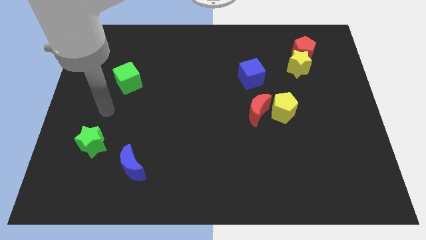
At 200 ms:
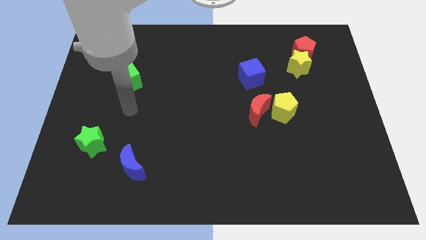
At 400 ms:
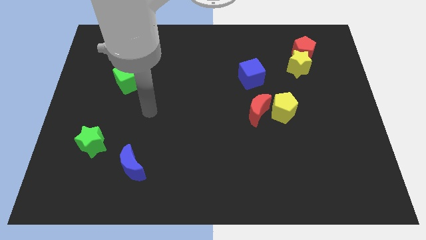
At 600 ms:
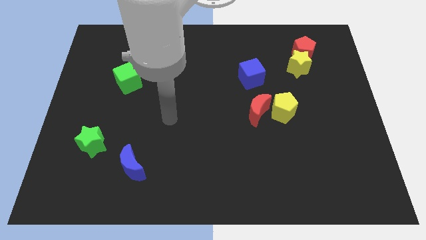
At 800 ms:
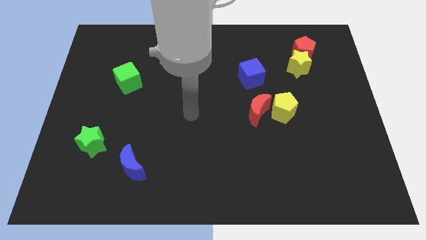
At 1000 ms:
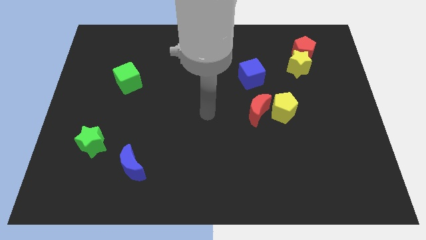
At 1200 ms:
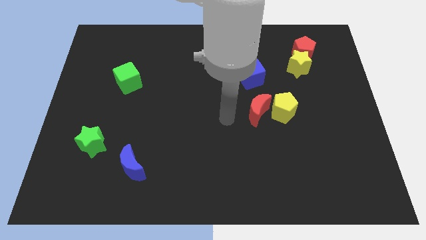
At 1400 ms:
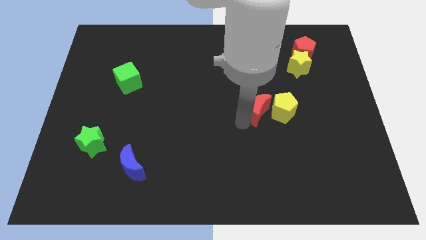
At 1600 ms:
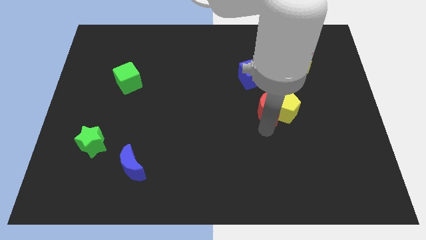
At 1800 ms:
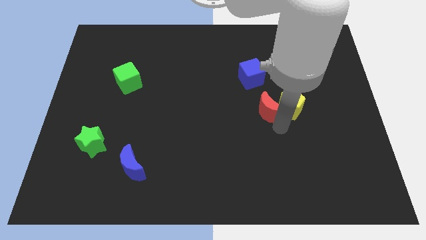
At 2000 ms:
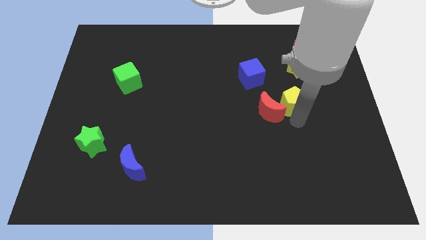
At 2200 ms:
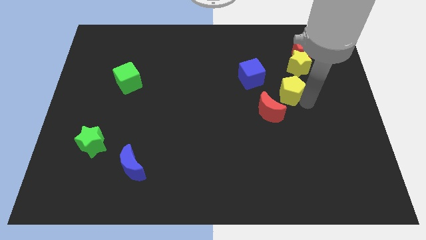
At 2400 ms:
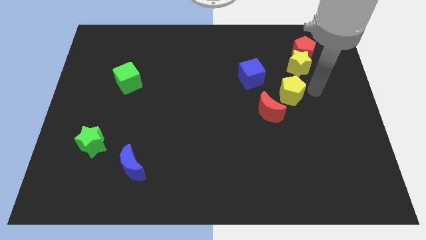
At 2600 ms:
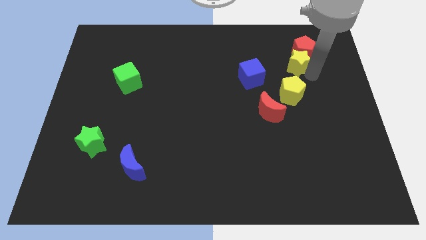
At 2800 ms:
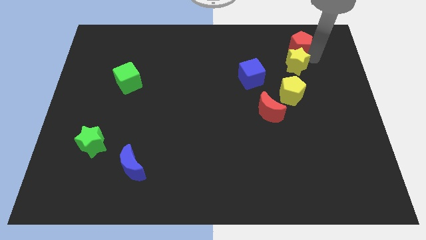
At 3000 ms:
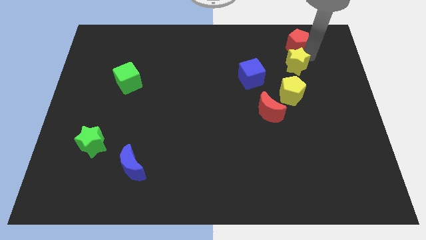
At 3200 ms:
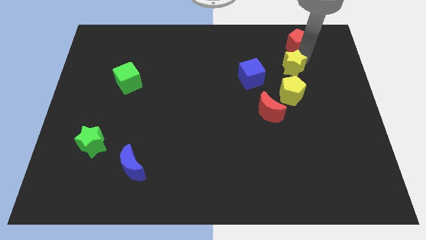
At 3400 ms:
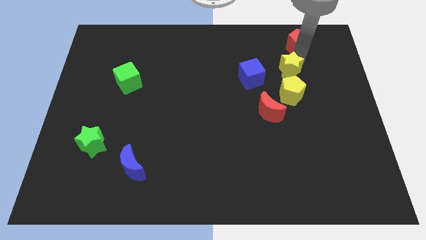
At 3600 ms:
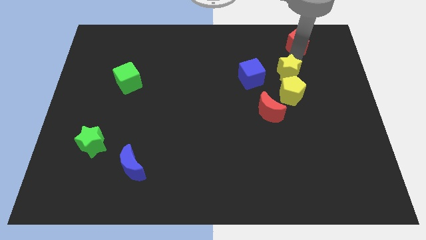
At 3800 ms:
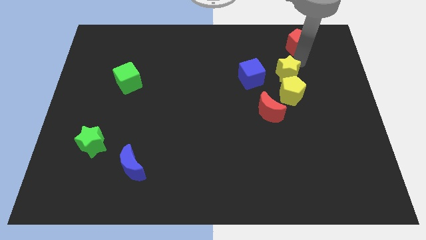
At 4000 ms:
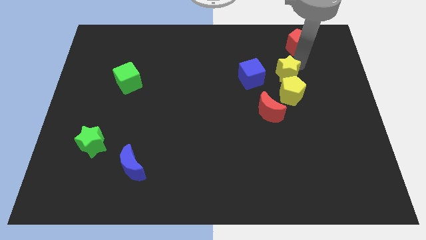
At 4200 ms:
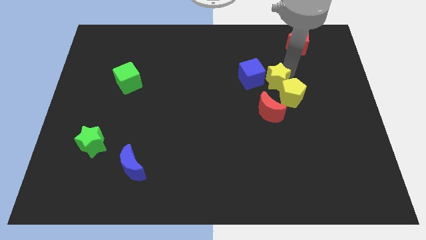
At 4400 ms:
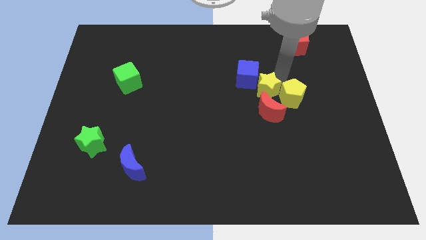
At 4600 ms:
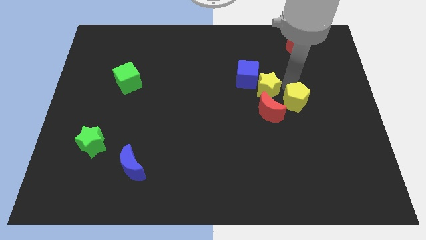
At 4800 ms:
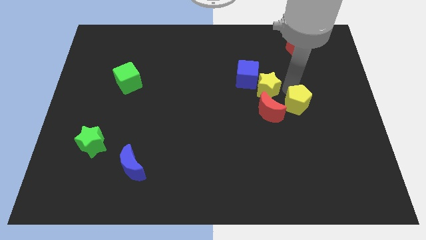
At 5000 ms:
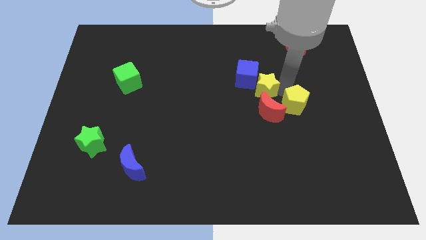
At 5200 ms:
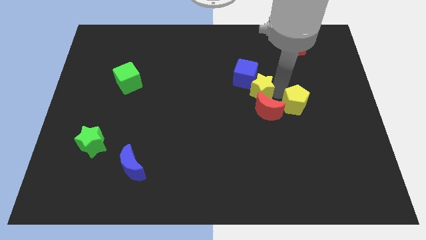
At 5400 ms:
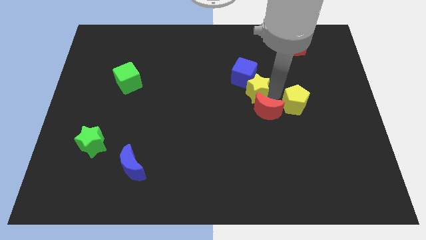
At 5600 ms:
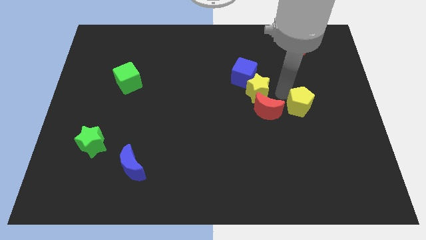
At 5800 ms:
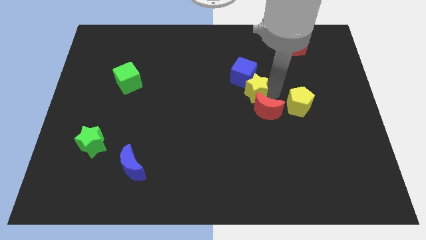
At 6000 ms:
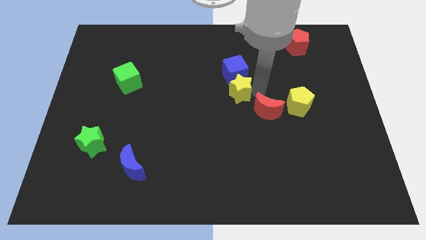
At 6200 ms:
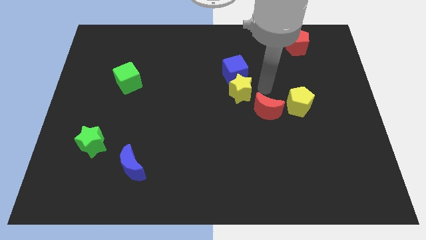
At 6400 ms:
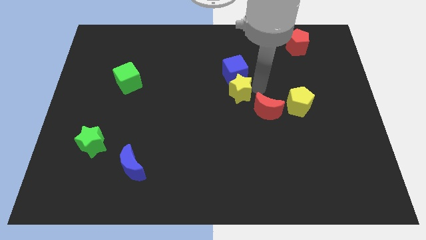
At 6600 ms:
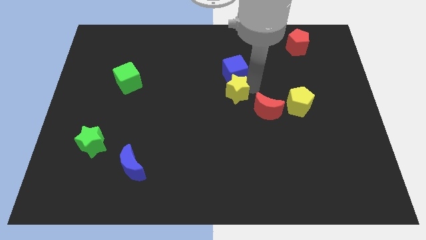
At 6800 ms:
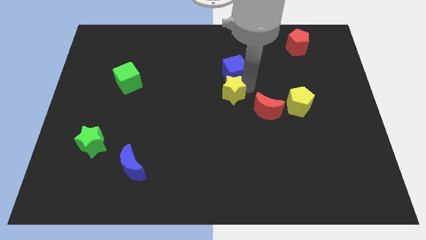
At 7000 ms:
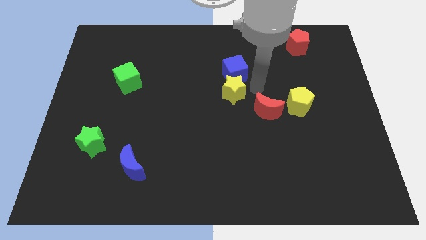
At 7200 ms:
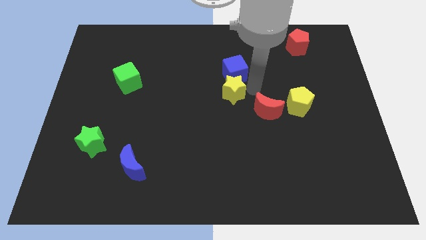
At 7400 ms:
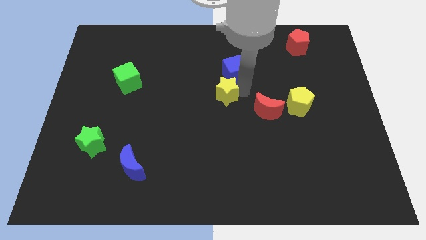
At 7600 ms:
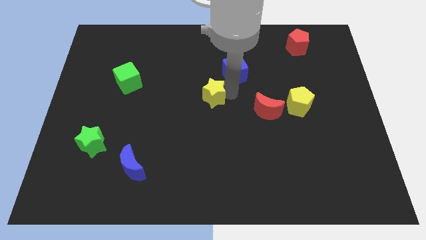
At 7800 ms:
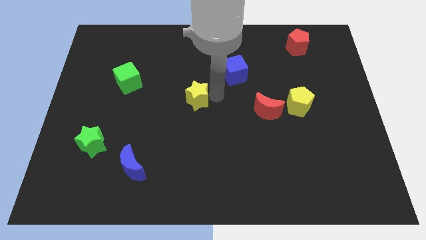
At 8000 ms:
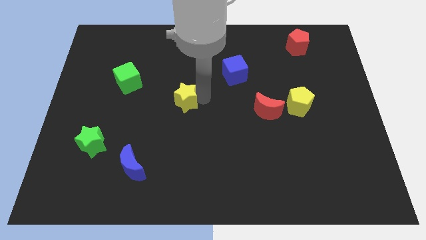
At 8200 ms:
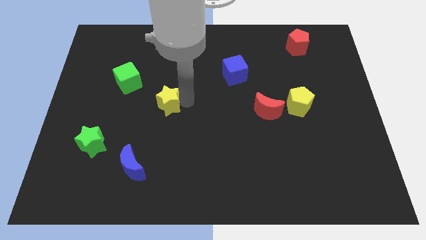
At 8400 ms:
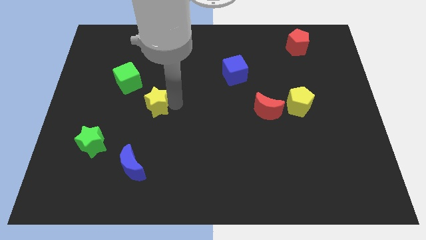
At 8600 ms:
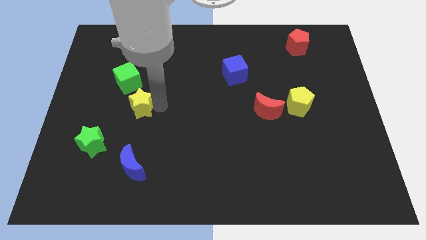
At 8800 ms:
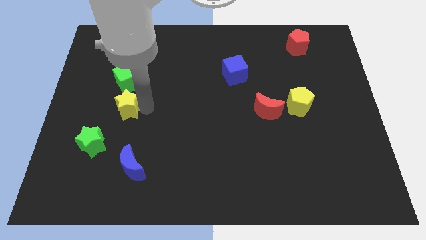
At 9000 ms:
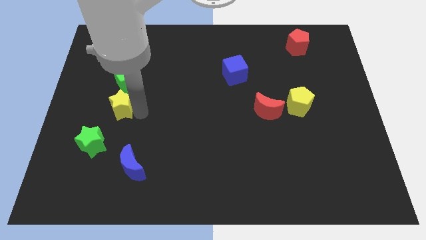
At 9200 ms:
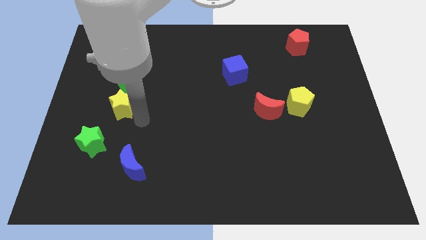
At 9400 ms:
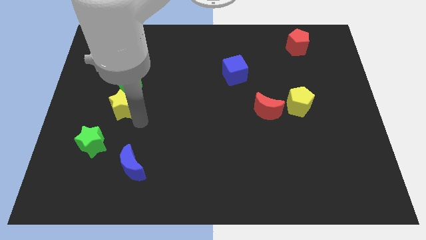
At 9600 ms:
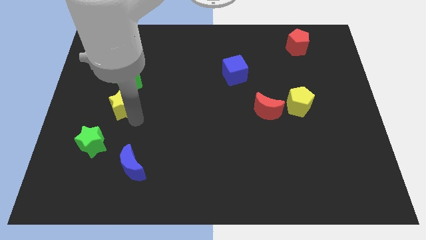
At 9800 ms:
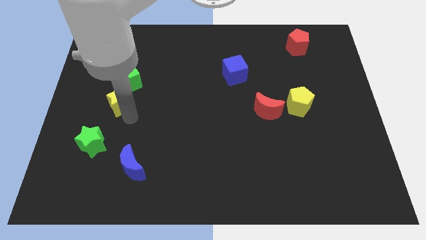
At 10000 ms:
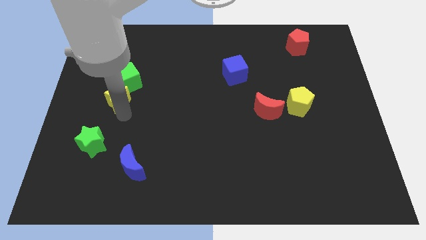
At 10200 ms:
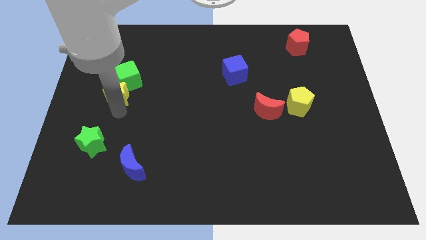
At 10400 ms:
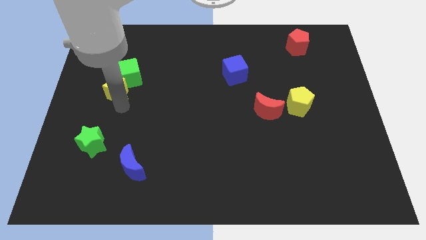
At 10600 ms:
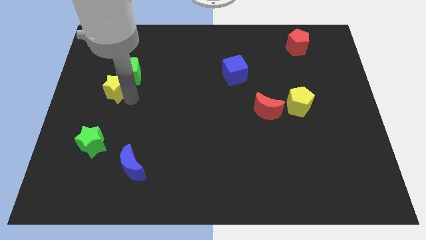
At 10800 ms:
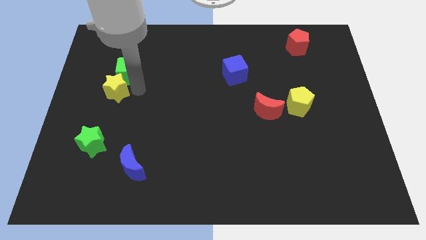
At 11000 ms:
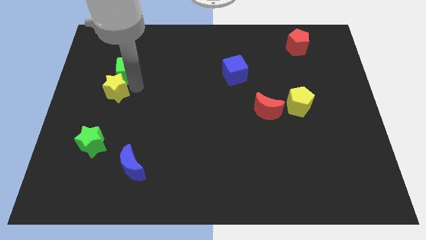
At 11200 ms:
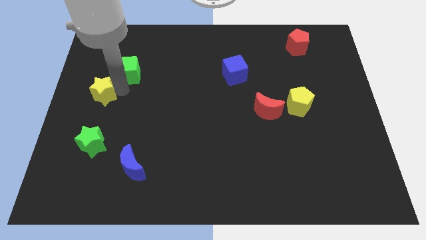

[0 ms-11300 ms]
move the yellow star to the left side
